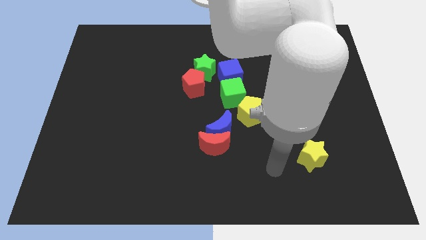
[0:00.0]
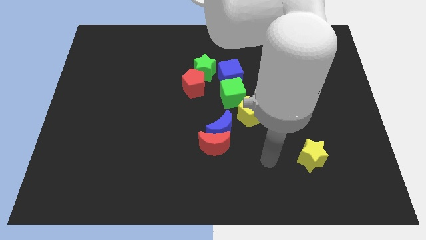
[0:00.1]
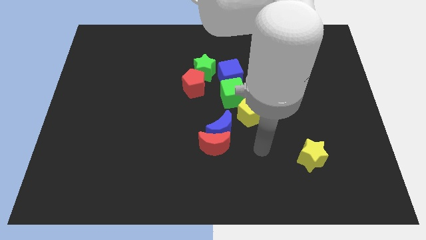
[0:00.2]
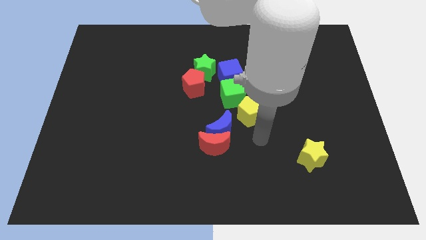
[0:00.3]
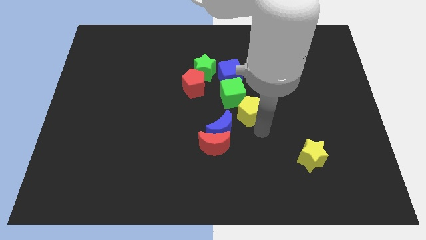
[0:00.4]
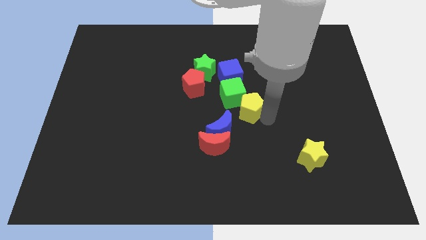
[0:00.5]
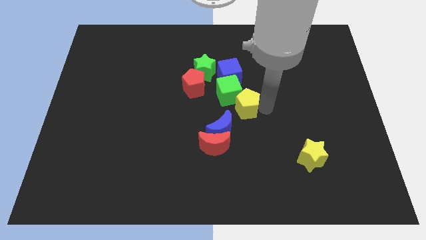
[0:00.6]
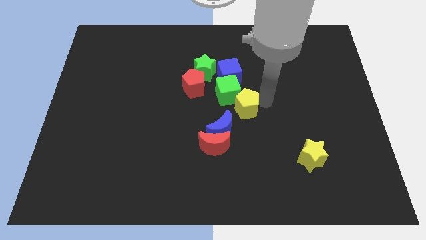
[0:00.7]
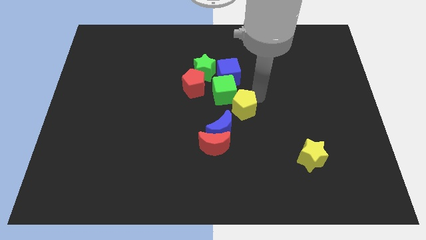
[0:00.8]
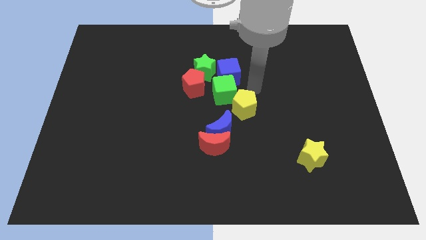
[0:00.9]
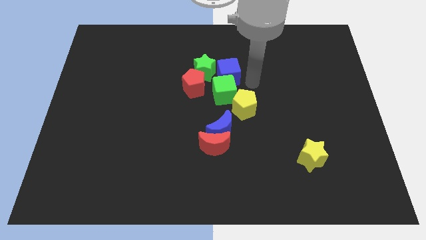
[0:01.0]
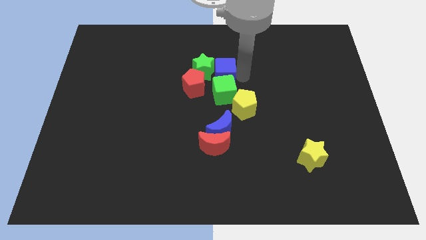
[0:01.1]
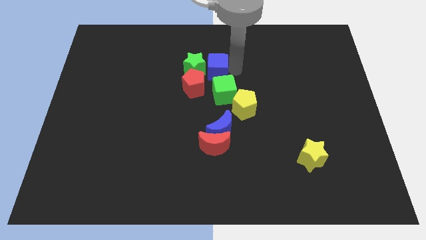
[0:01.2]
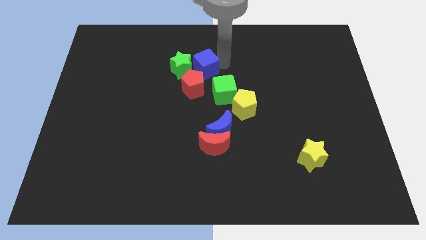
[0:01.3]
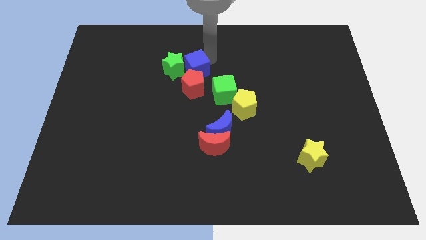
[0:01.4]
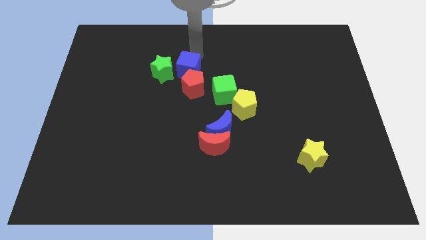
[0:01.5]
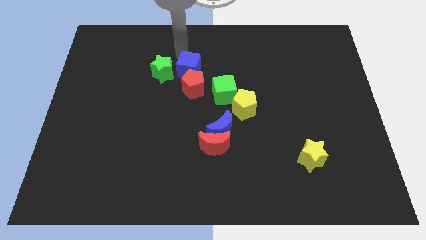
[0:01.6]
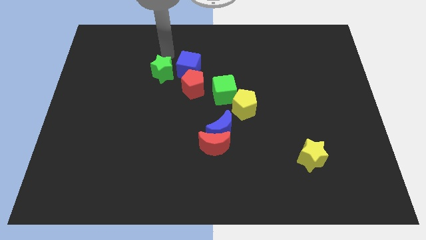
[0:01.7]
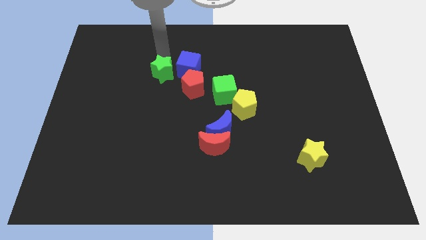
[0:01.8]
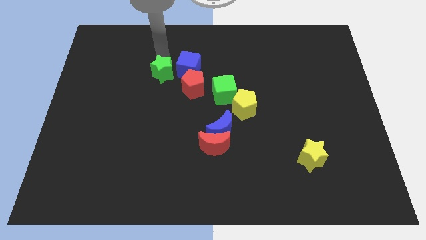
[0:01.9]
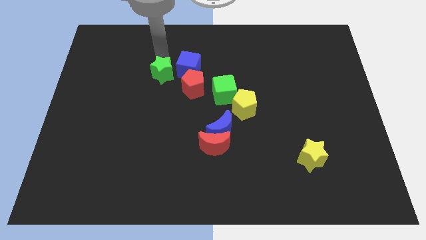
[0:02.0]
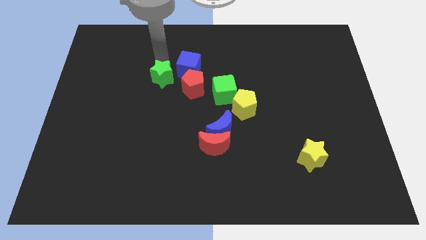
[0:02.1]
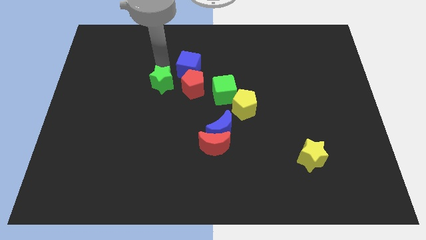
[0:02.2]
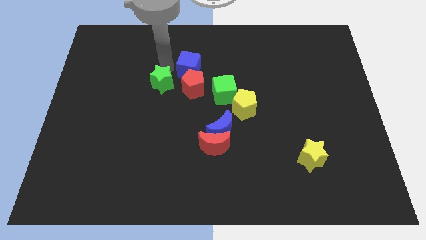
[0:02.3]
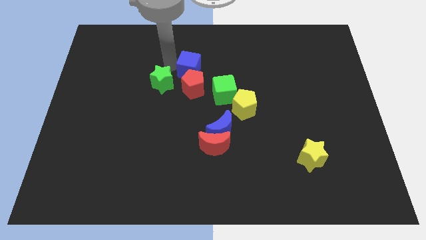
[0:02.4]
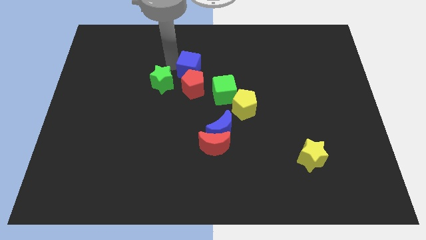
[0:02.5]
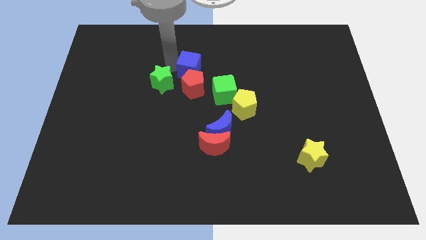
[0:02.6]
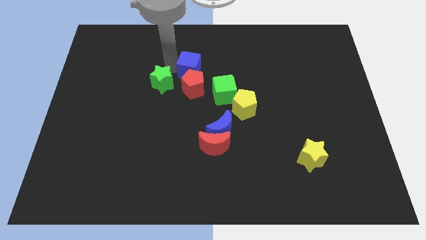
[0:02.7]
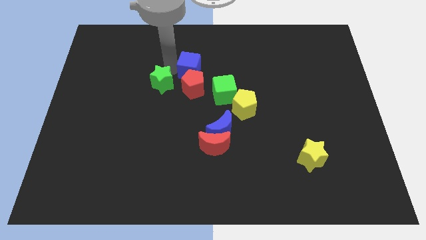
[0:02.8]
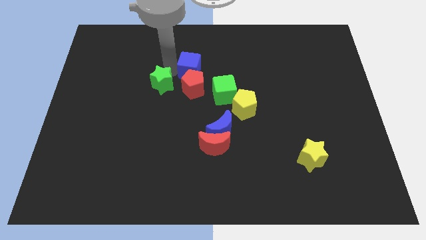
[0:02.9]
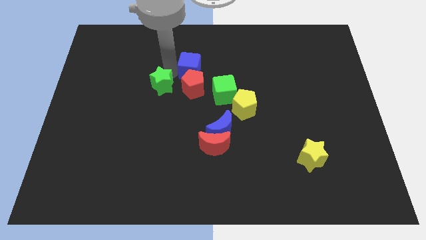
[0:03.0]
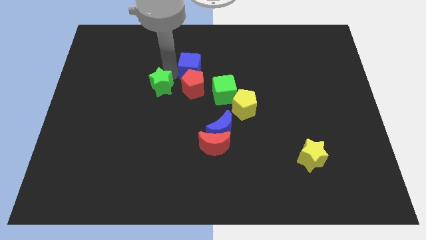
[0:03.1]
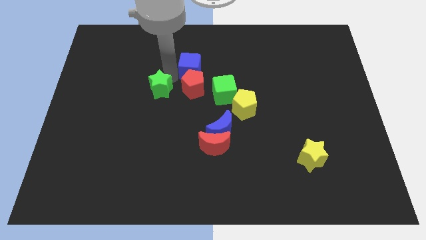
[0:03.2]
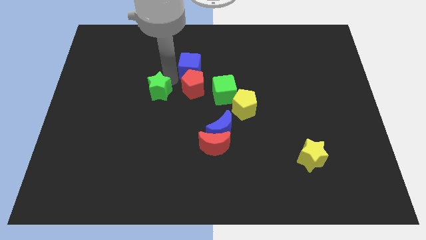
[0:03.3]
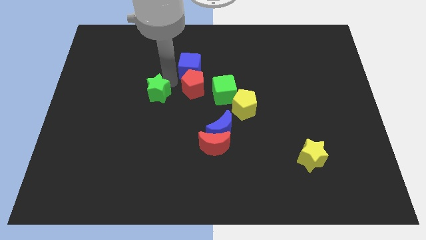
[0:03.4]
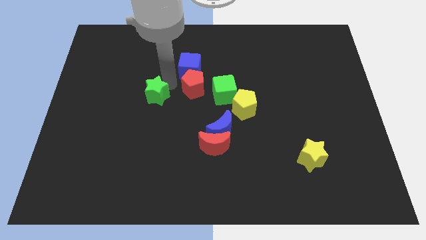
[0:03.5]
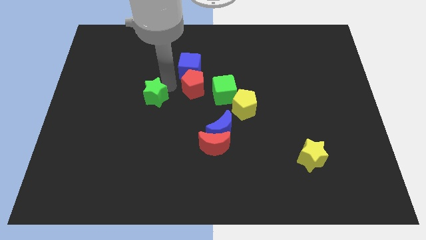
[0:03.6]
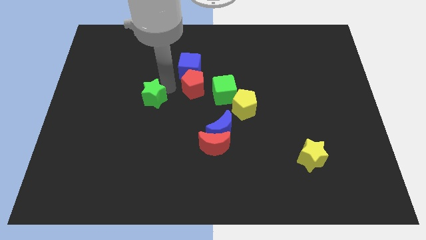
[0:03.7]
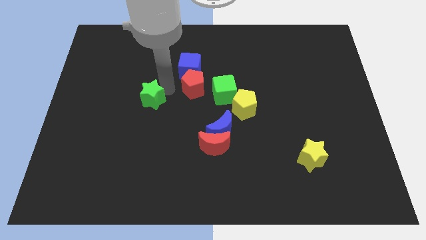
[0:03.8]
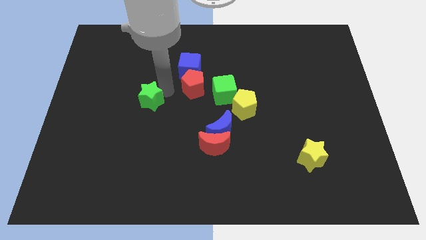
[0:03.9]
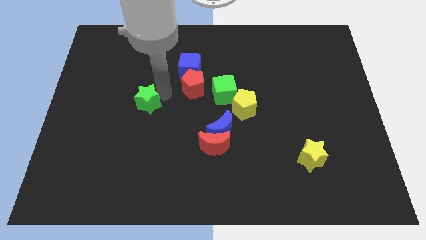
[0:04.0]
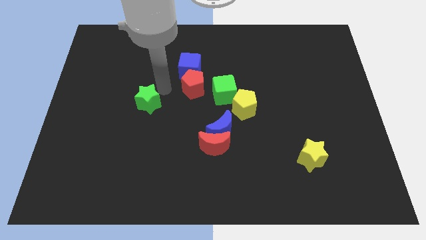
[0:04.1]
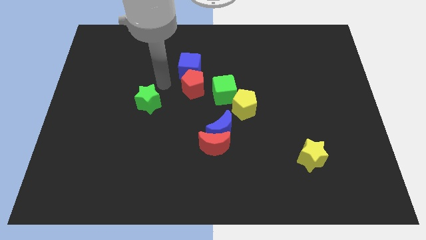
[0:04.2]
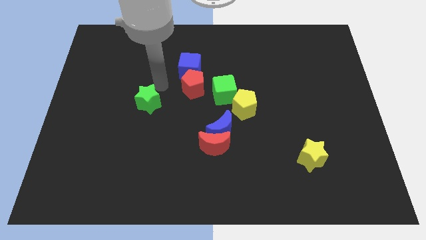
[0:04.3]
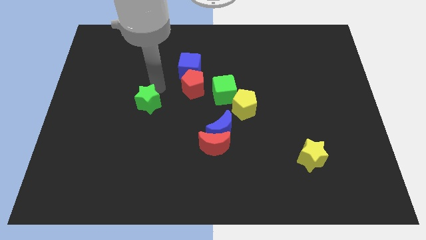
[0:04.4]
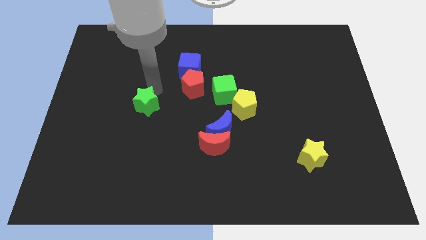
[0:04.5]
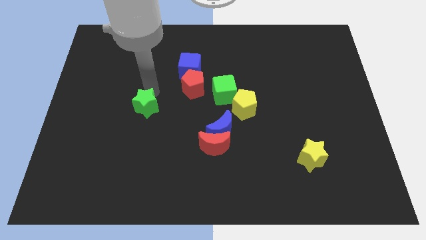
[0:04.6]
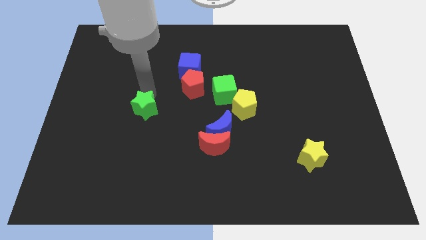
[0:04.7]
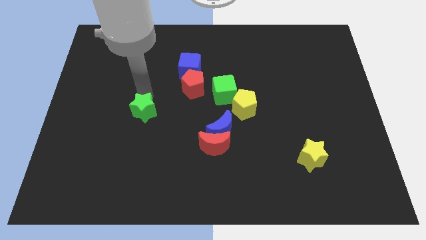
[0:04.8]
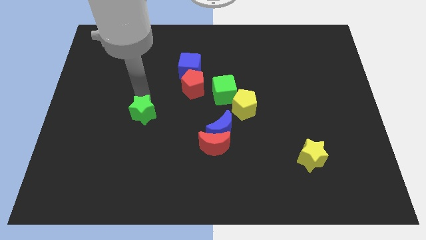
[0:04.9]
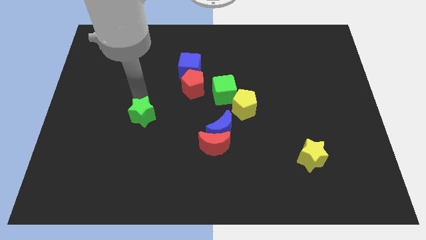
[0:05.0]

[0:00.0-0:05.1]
slide the green star downwards and left diagonally

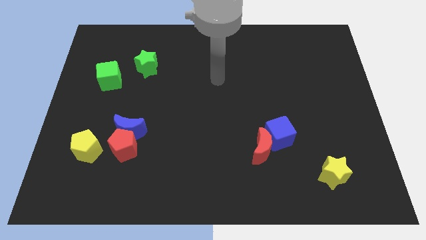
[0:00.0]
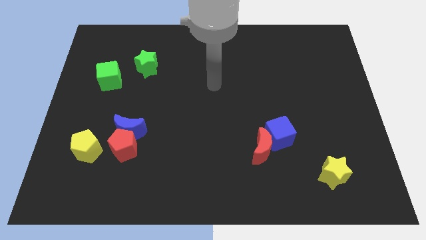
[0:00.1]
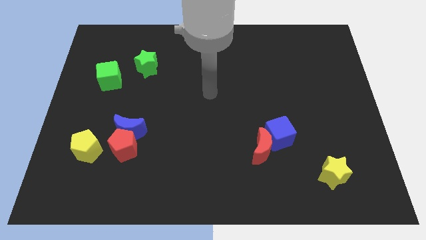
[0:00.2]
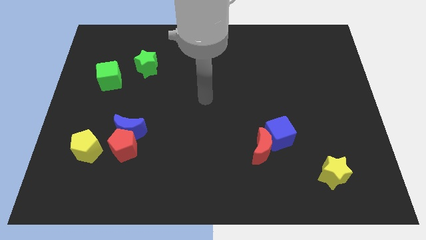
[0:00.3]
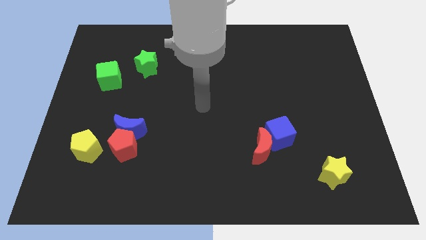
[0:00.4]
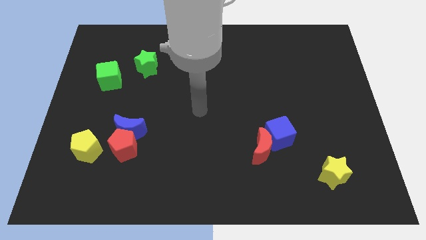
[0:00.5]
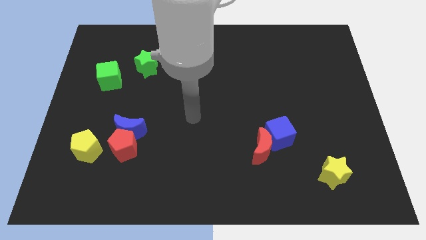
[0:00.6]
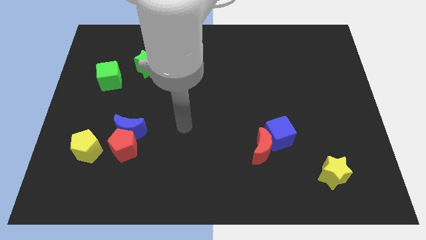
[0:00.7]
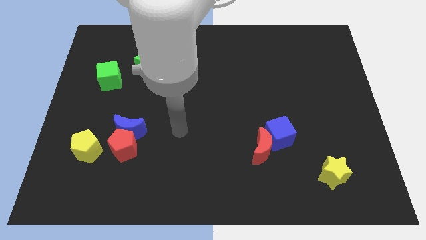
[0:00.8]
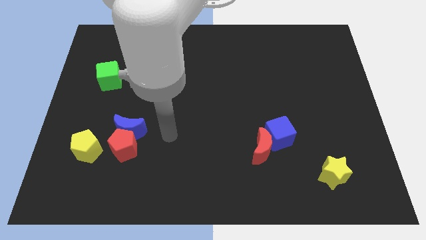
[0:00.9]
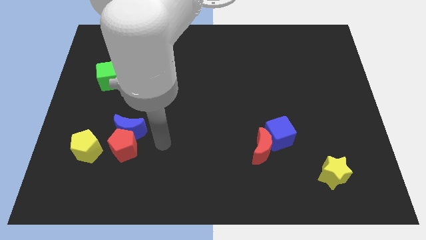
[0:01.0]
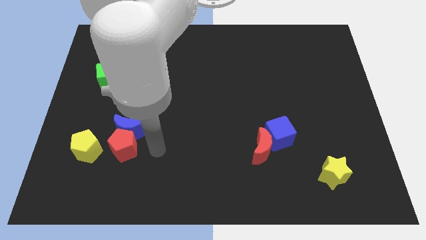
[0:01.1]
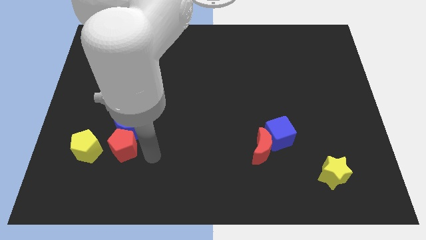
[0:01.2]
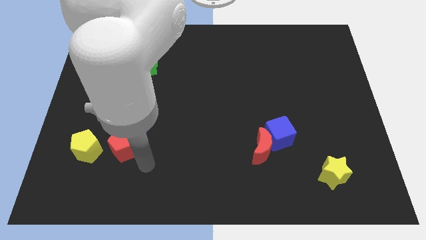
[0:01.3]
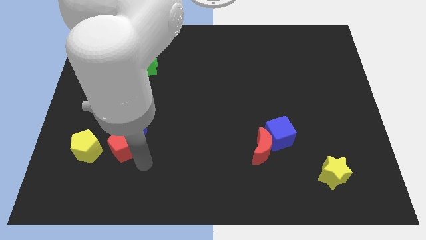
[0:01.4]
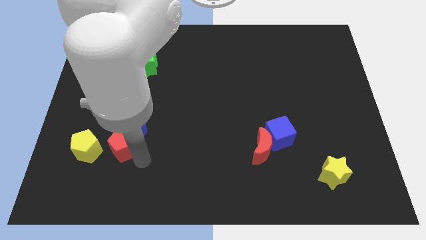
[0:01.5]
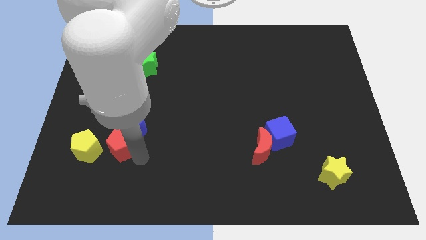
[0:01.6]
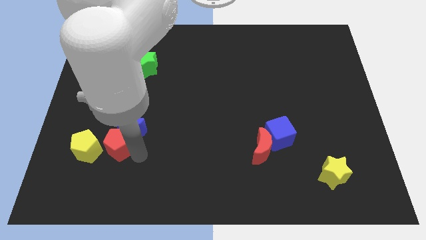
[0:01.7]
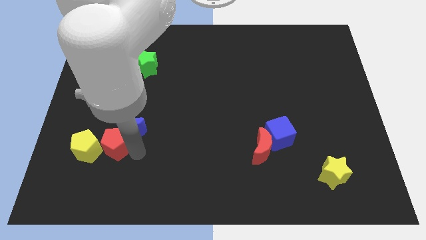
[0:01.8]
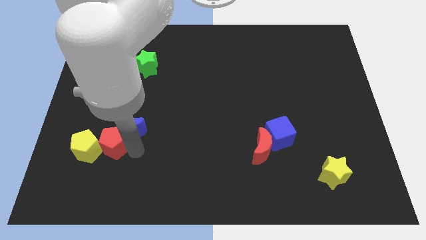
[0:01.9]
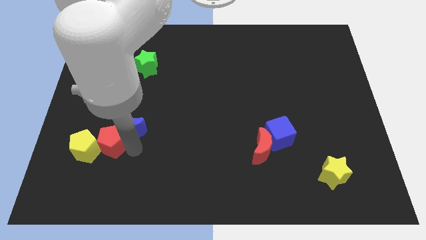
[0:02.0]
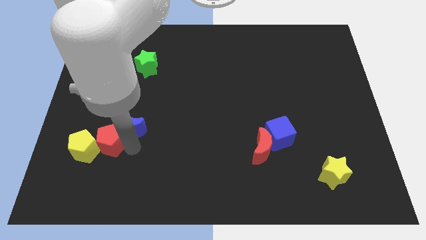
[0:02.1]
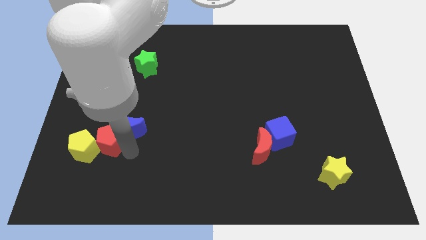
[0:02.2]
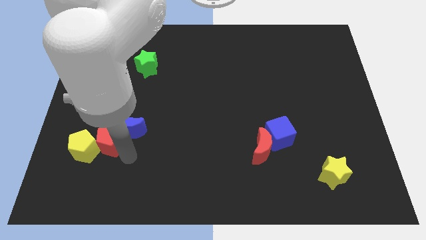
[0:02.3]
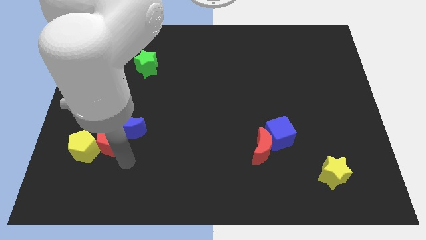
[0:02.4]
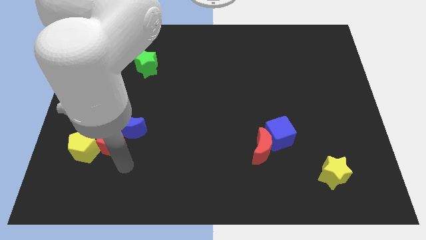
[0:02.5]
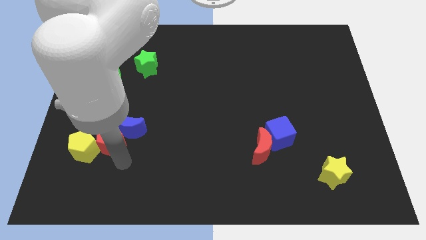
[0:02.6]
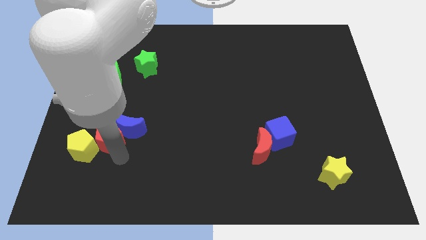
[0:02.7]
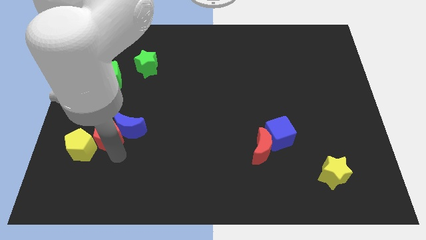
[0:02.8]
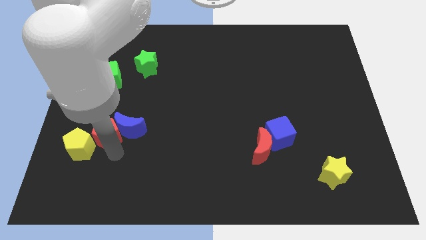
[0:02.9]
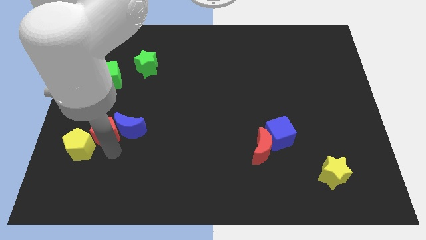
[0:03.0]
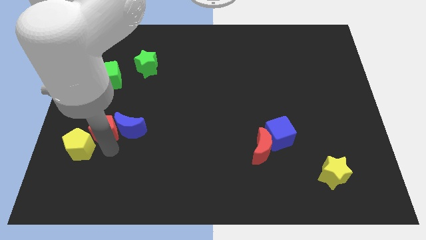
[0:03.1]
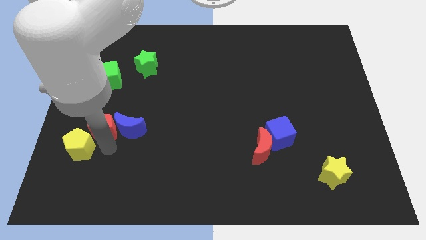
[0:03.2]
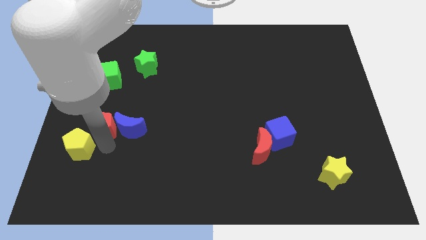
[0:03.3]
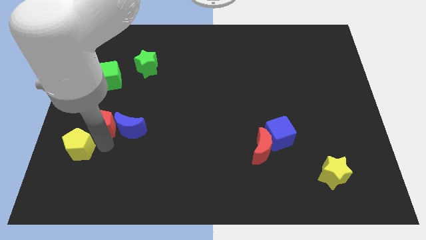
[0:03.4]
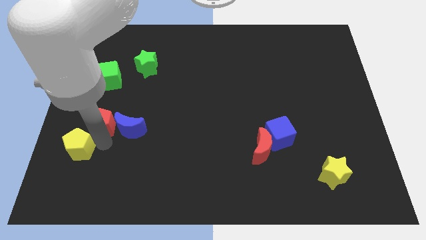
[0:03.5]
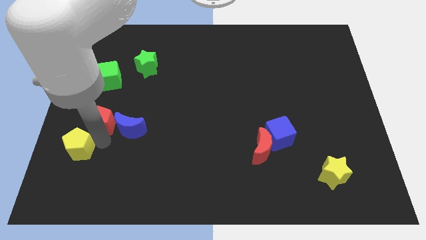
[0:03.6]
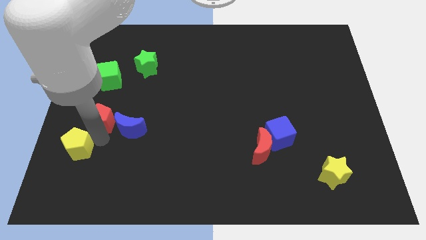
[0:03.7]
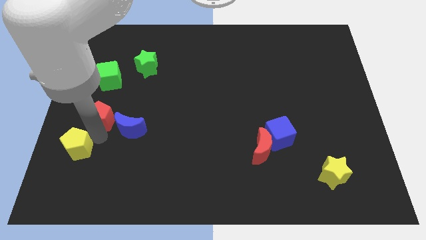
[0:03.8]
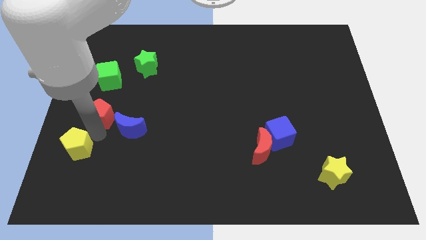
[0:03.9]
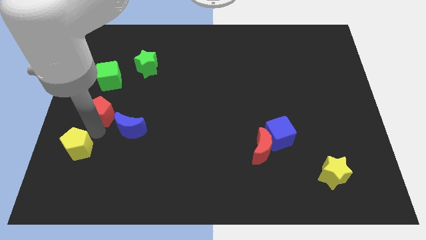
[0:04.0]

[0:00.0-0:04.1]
push the red pentagon upwards a little bit
